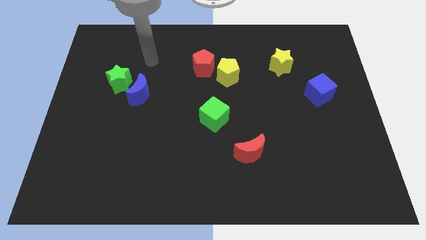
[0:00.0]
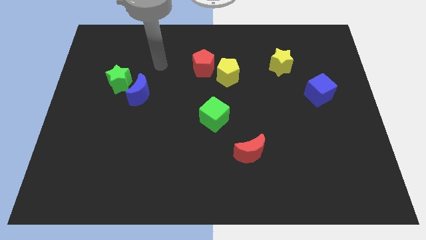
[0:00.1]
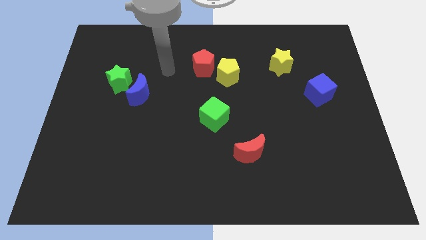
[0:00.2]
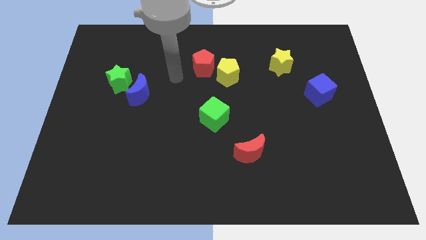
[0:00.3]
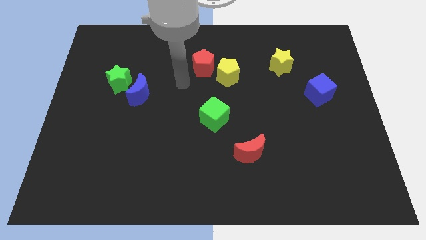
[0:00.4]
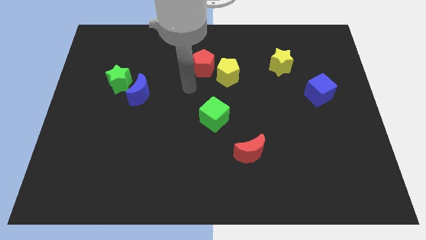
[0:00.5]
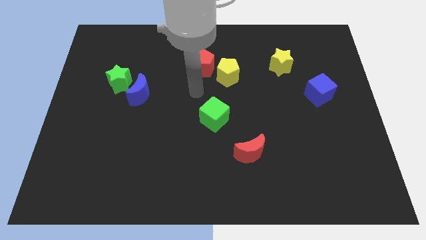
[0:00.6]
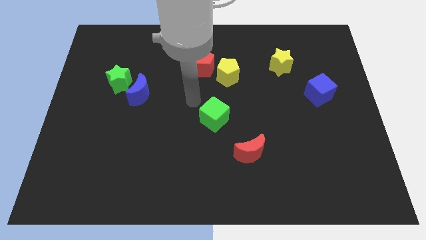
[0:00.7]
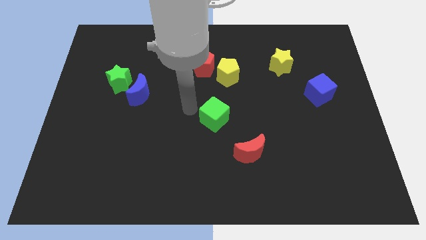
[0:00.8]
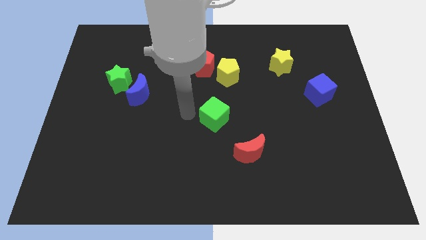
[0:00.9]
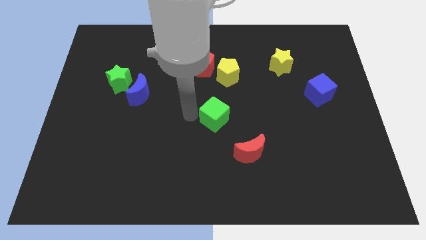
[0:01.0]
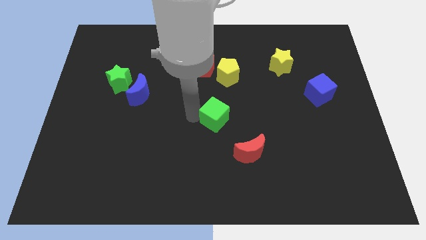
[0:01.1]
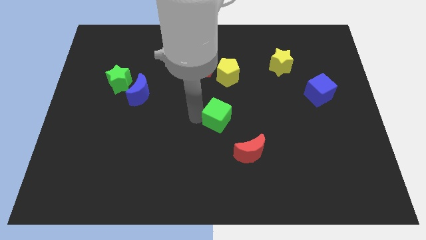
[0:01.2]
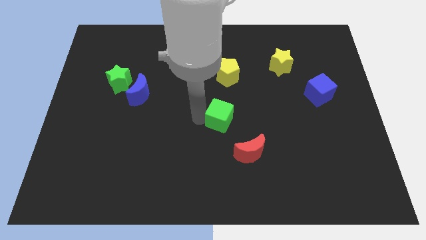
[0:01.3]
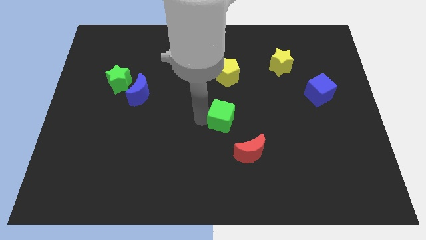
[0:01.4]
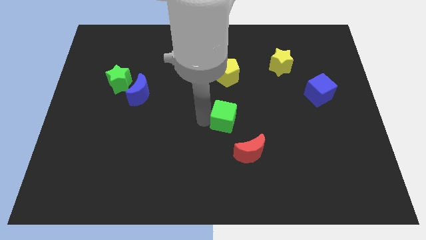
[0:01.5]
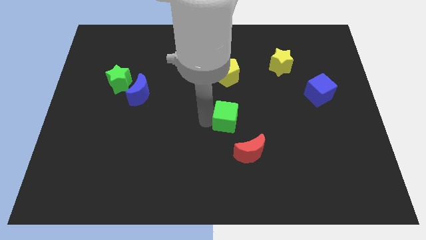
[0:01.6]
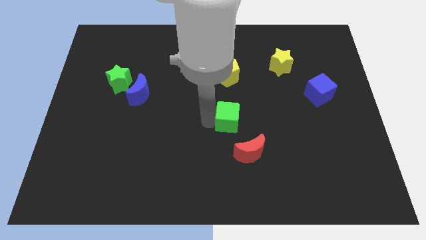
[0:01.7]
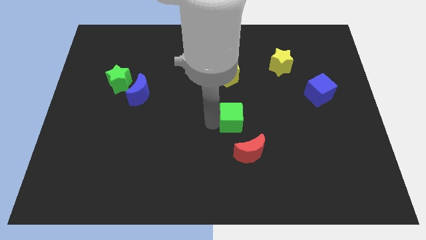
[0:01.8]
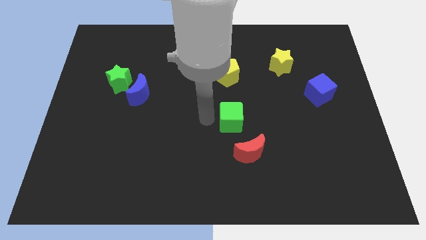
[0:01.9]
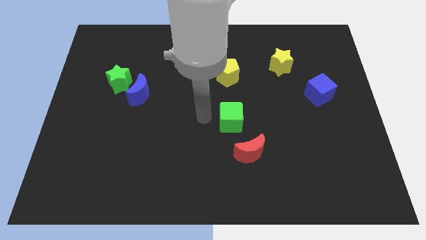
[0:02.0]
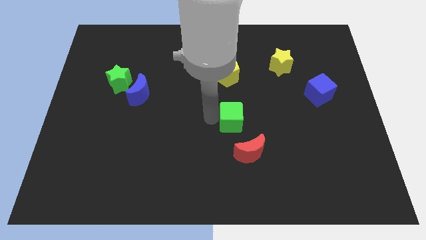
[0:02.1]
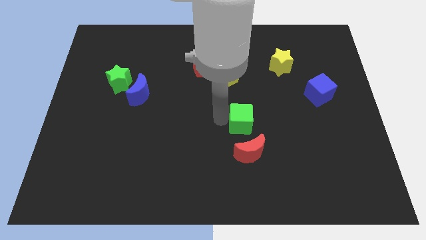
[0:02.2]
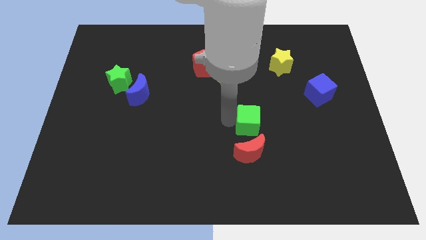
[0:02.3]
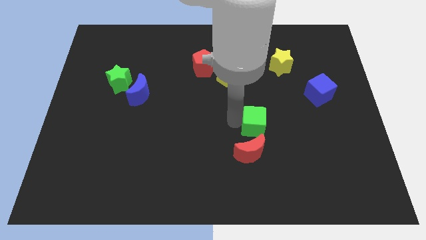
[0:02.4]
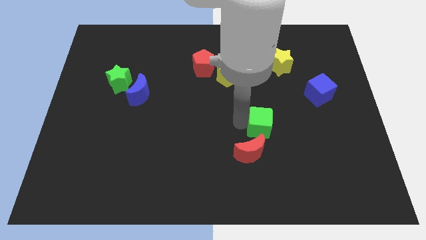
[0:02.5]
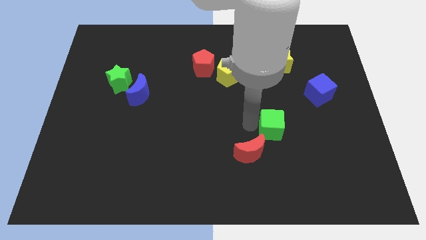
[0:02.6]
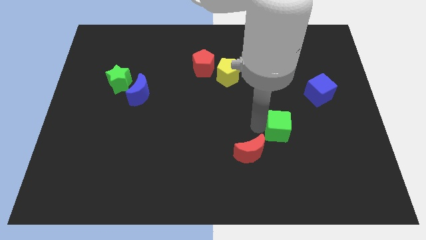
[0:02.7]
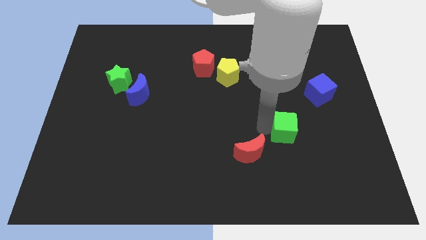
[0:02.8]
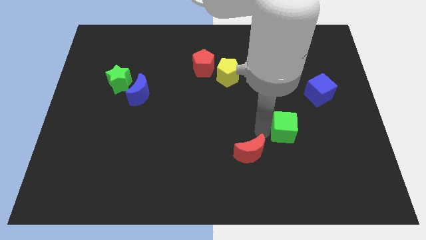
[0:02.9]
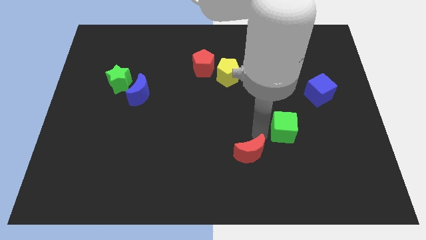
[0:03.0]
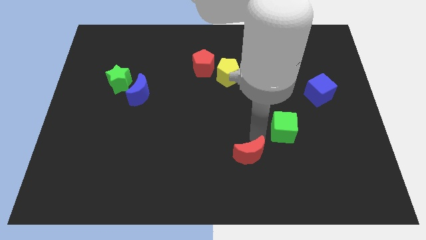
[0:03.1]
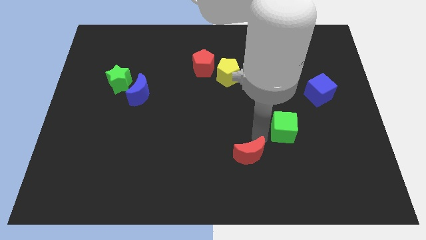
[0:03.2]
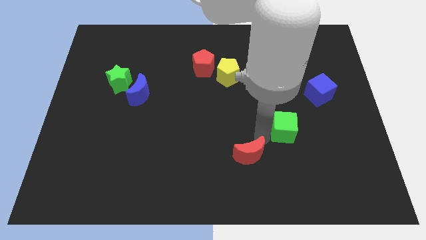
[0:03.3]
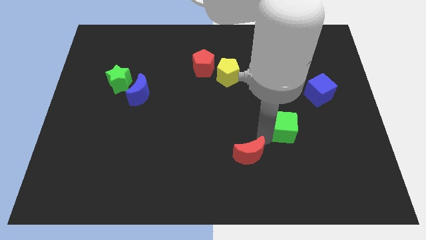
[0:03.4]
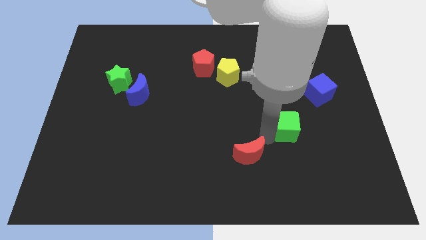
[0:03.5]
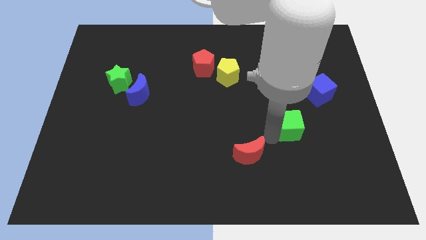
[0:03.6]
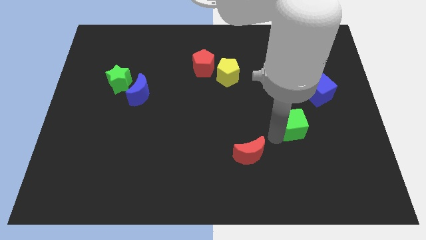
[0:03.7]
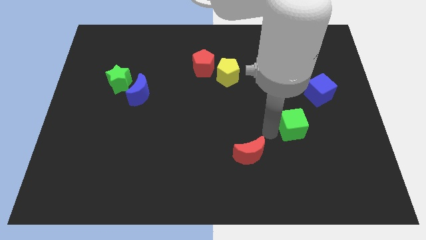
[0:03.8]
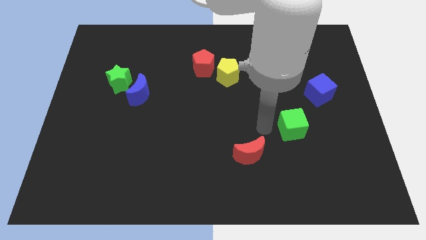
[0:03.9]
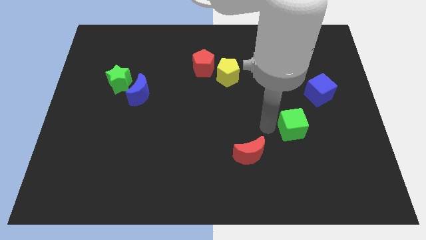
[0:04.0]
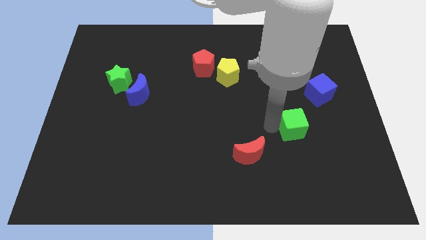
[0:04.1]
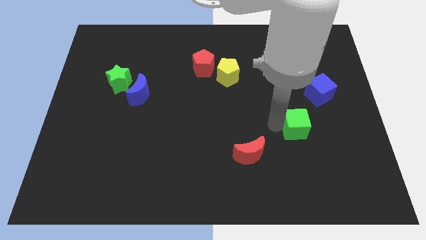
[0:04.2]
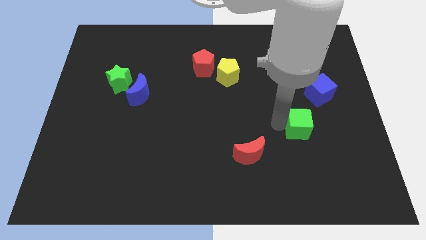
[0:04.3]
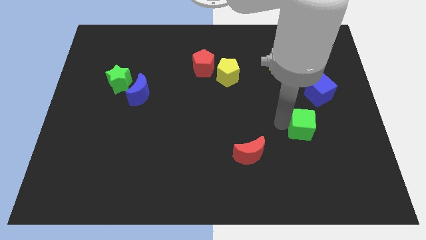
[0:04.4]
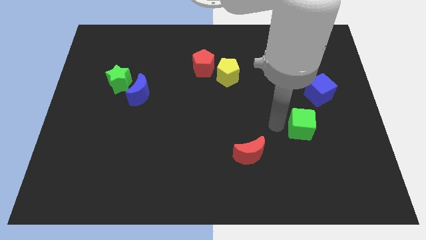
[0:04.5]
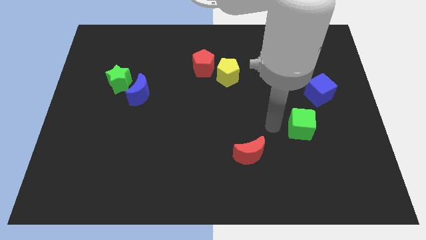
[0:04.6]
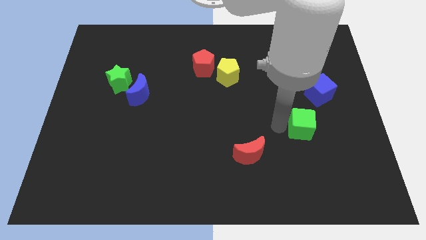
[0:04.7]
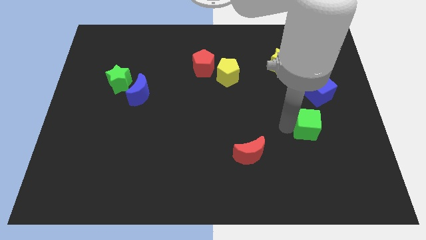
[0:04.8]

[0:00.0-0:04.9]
push the green cube to the bottom side of the blue cube

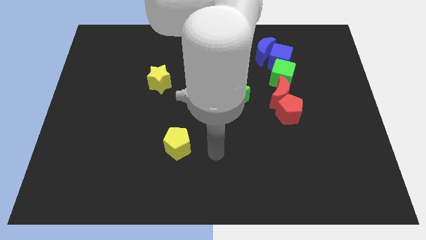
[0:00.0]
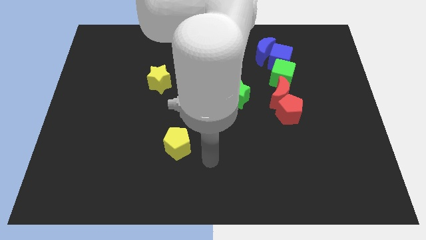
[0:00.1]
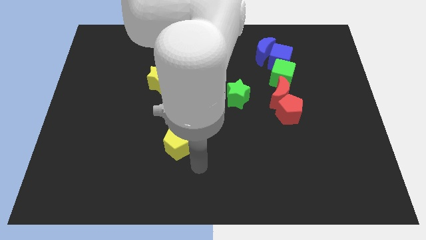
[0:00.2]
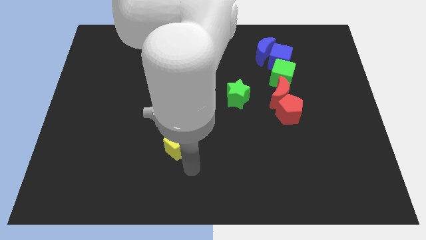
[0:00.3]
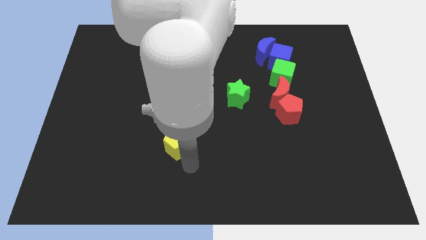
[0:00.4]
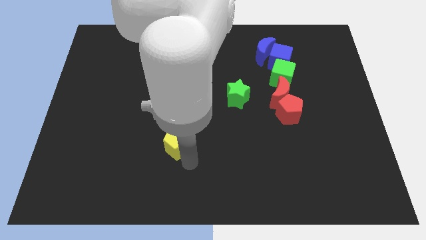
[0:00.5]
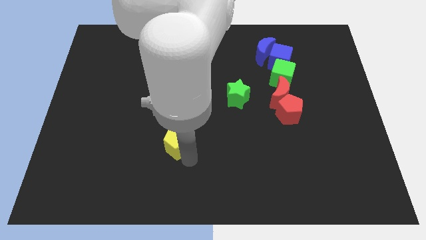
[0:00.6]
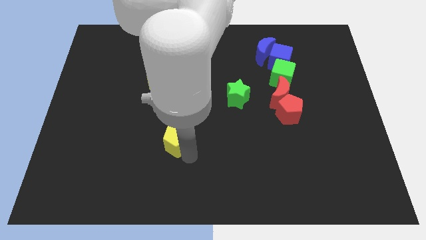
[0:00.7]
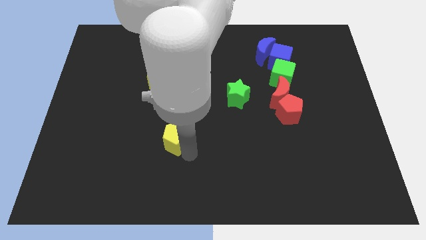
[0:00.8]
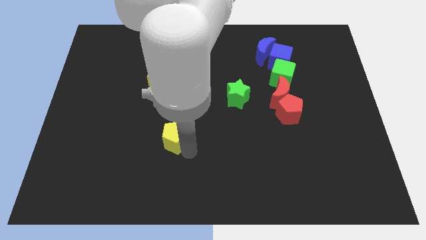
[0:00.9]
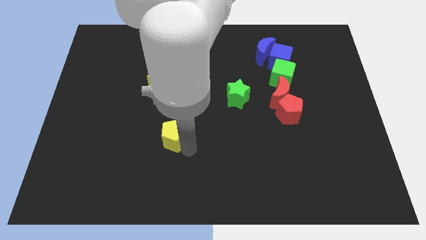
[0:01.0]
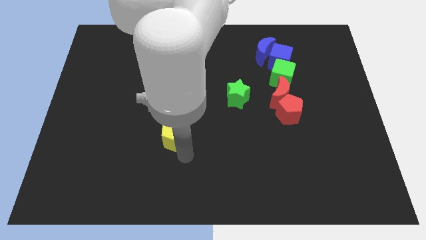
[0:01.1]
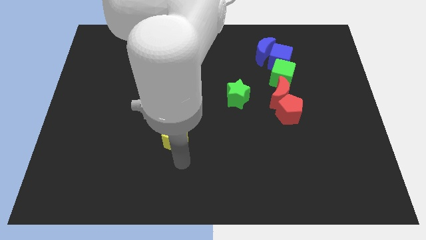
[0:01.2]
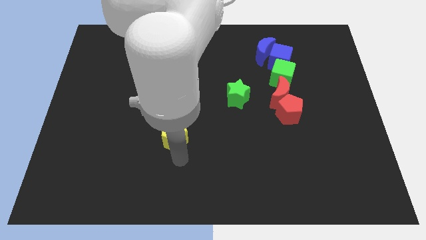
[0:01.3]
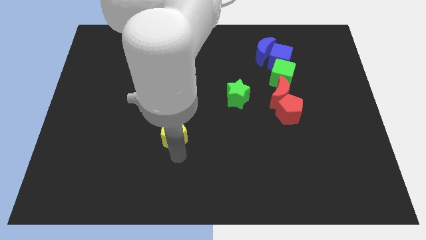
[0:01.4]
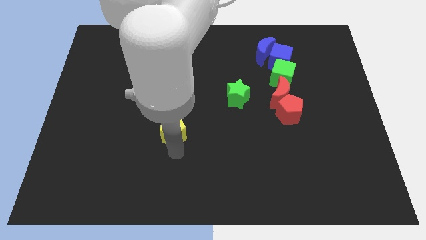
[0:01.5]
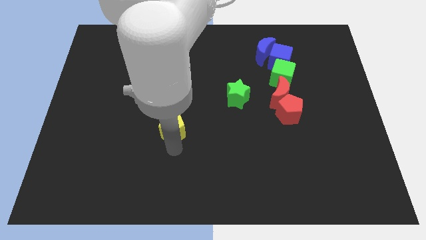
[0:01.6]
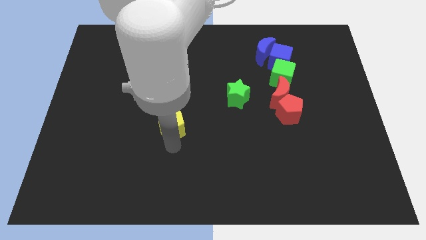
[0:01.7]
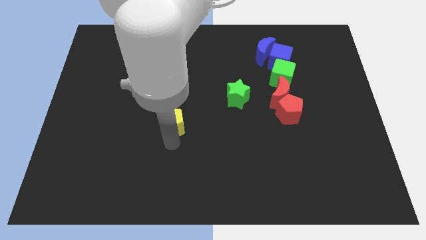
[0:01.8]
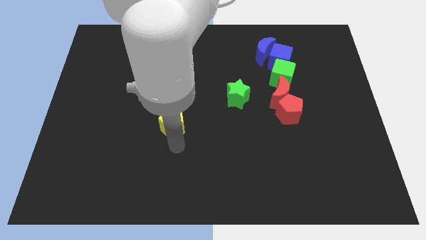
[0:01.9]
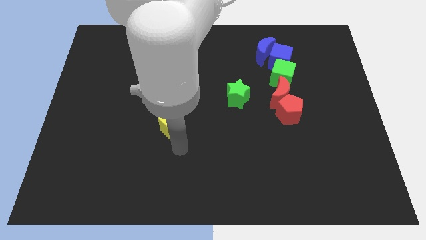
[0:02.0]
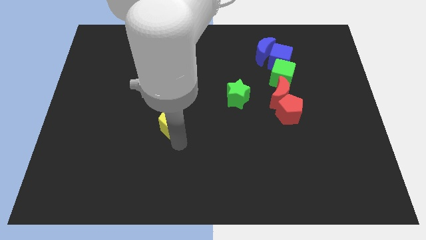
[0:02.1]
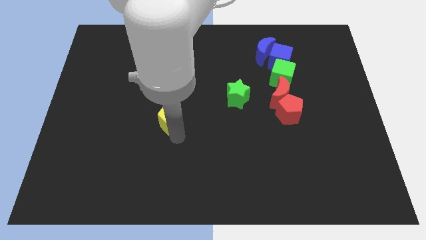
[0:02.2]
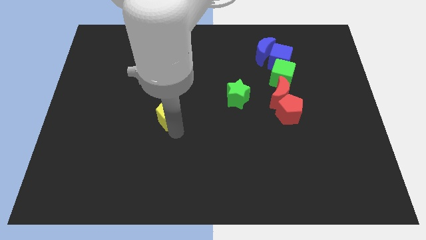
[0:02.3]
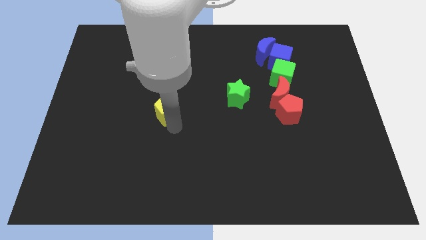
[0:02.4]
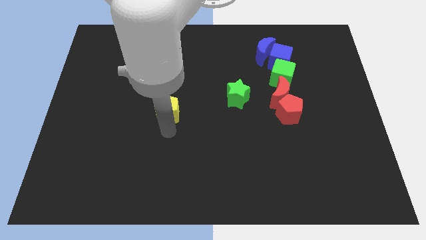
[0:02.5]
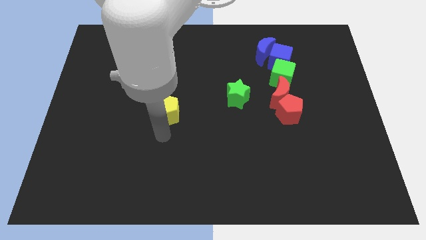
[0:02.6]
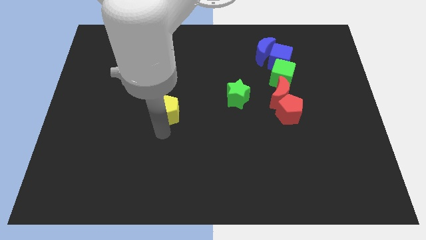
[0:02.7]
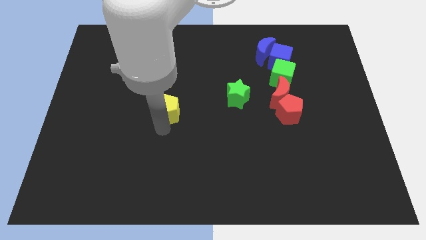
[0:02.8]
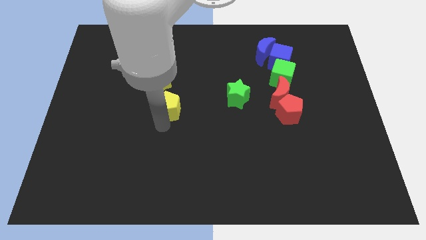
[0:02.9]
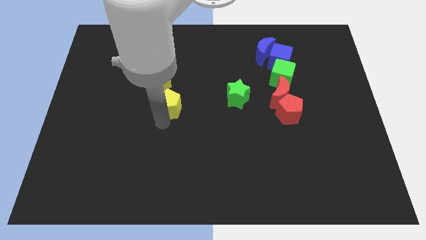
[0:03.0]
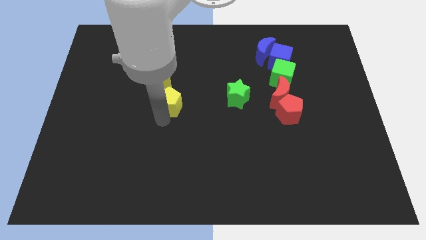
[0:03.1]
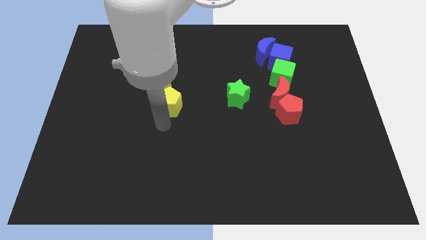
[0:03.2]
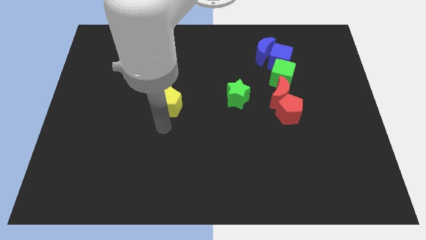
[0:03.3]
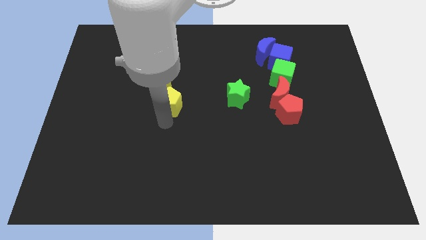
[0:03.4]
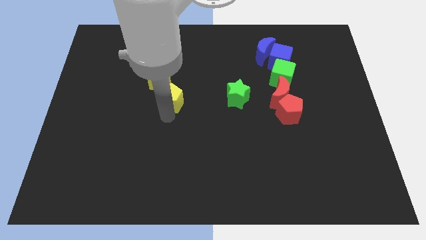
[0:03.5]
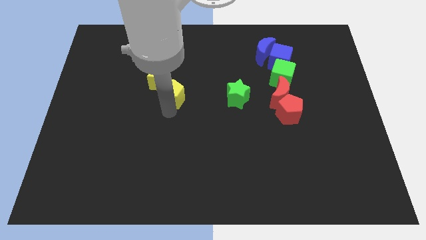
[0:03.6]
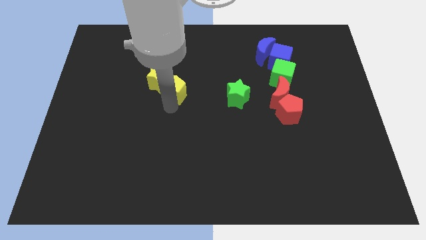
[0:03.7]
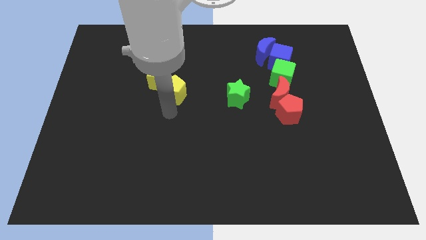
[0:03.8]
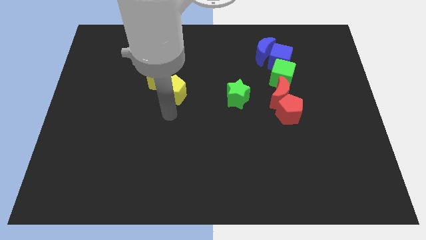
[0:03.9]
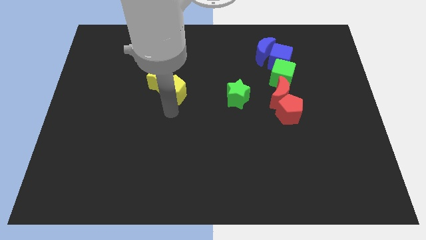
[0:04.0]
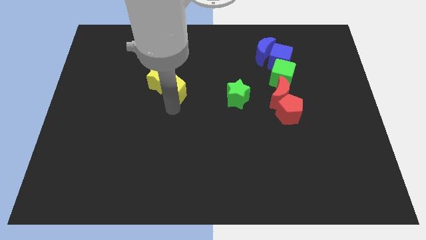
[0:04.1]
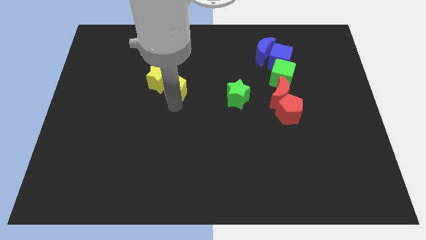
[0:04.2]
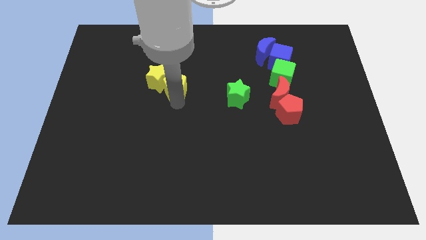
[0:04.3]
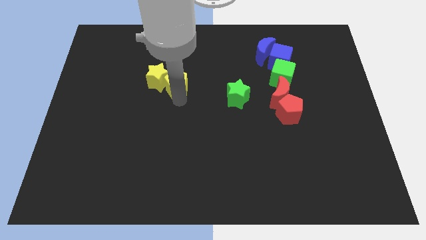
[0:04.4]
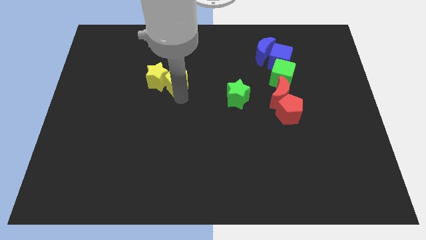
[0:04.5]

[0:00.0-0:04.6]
push the yellow pentagon to the top right side of the yellow star
